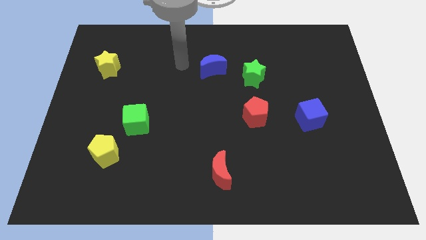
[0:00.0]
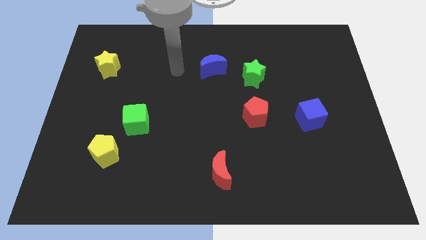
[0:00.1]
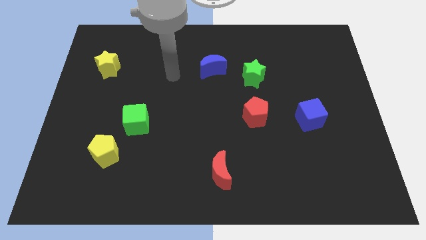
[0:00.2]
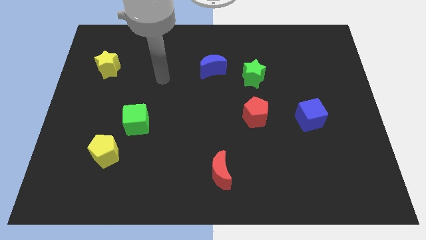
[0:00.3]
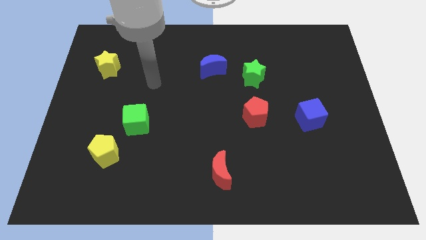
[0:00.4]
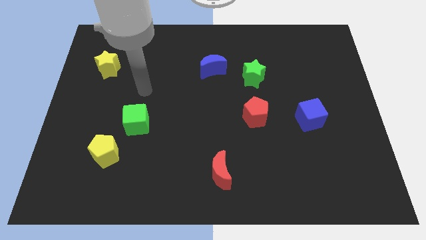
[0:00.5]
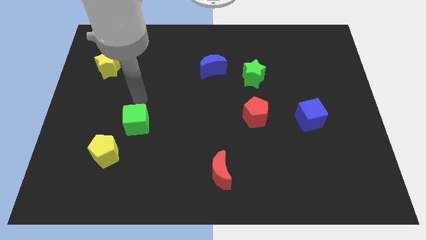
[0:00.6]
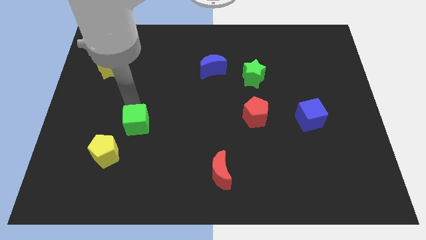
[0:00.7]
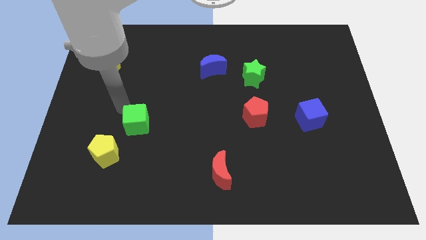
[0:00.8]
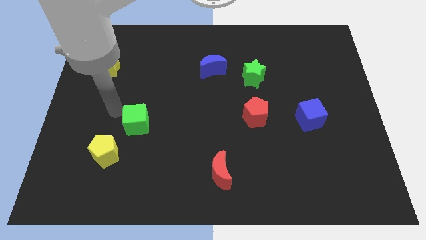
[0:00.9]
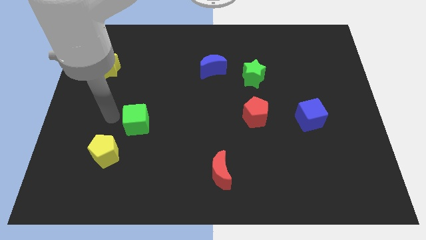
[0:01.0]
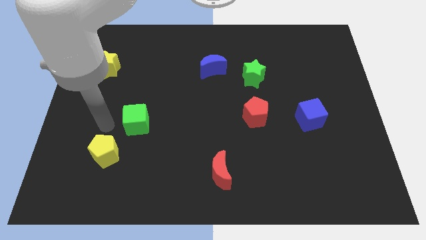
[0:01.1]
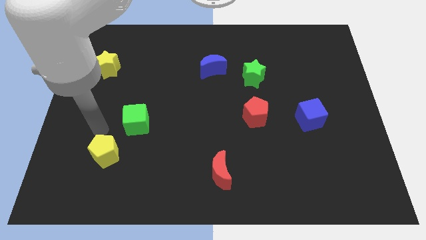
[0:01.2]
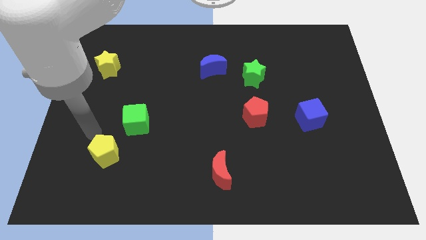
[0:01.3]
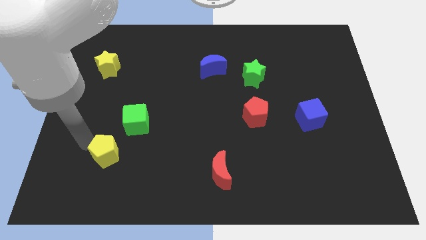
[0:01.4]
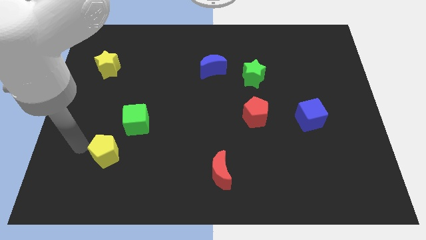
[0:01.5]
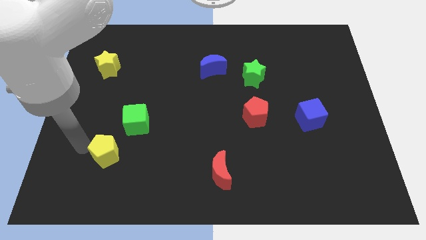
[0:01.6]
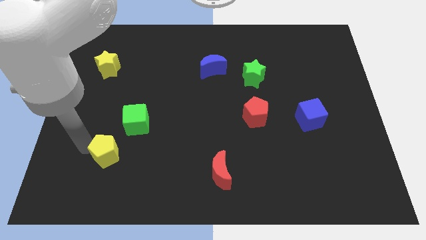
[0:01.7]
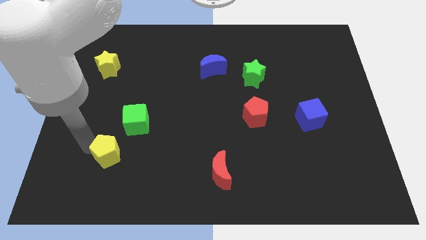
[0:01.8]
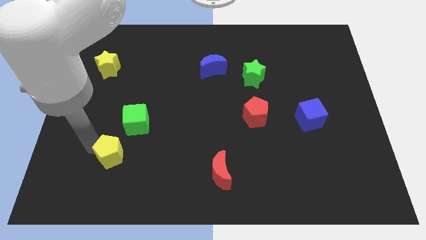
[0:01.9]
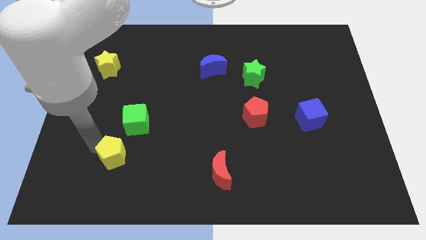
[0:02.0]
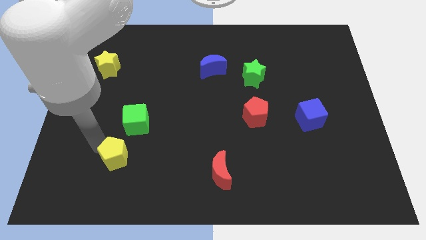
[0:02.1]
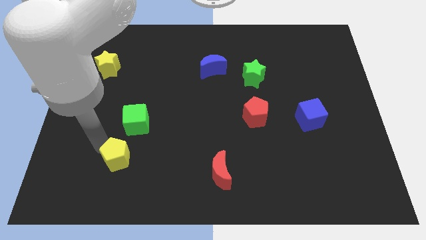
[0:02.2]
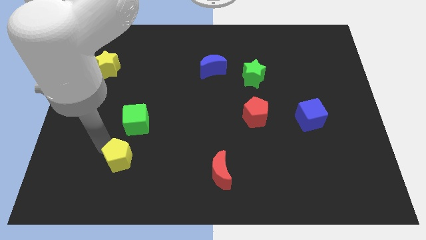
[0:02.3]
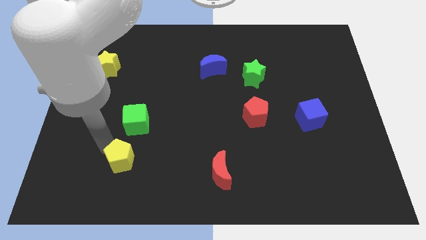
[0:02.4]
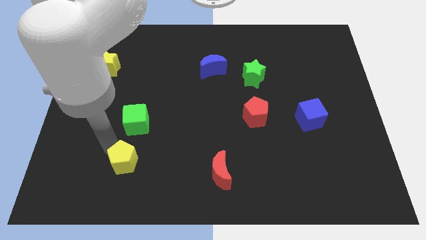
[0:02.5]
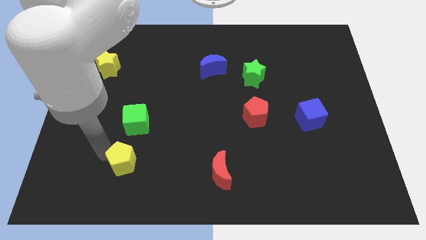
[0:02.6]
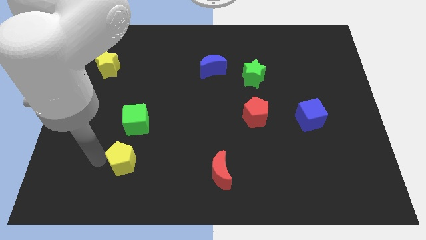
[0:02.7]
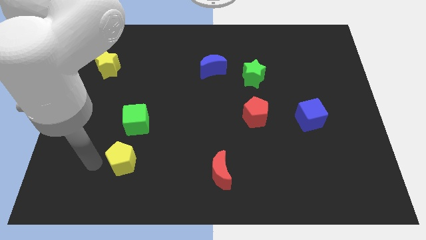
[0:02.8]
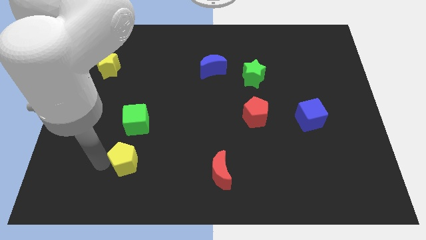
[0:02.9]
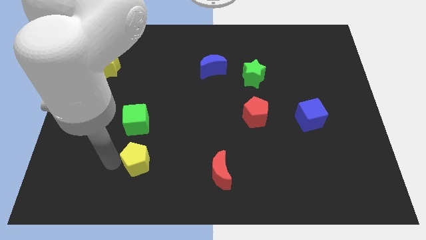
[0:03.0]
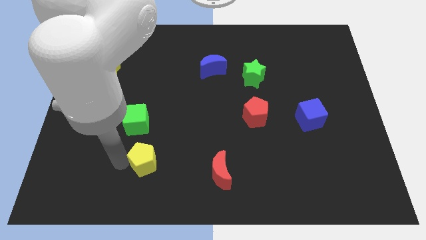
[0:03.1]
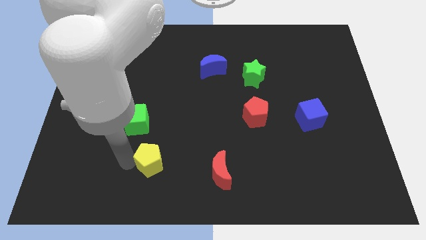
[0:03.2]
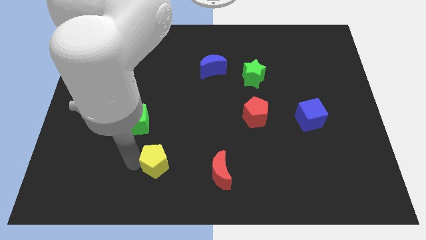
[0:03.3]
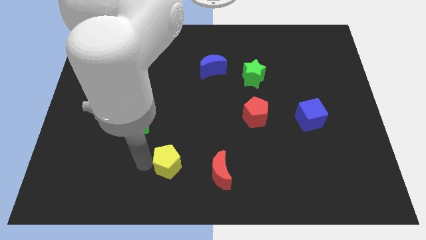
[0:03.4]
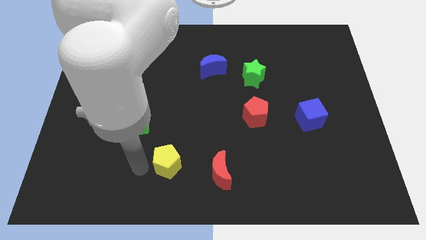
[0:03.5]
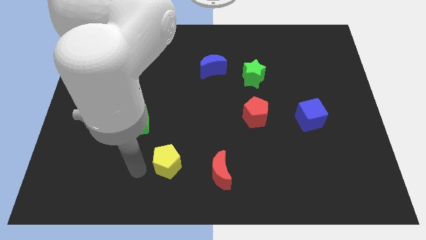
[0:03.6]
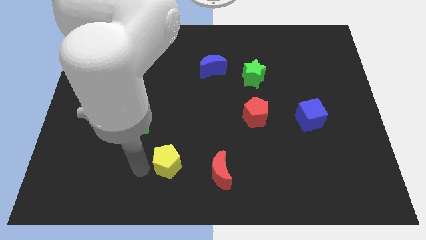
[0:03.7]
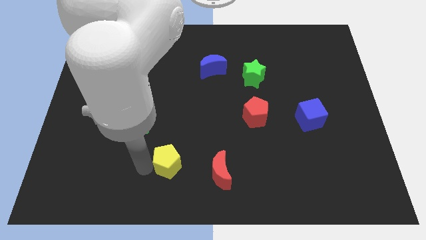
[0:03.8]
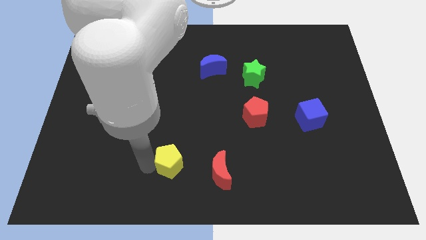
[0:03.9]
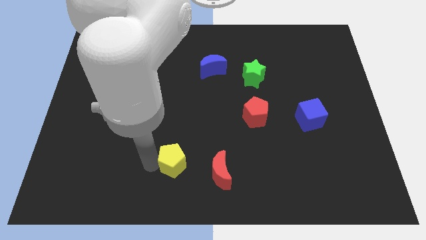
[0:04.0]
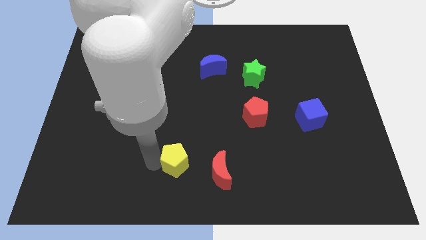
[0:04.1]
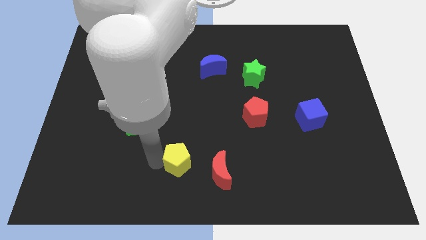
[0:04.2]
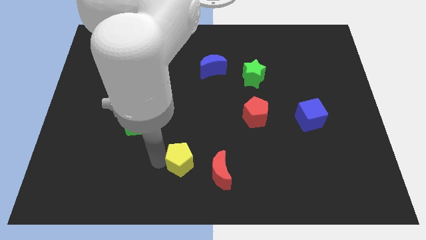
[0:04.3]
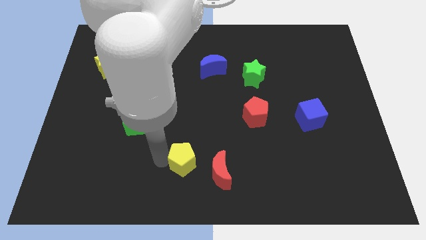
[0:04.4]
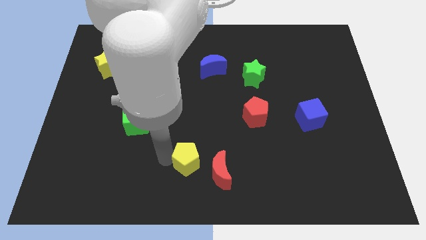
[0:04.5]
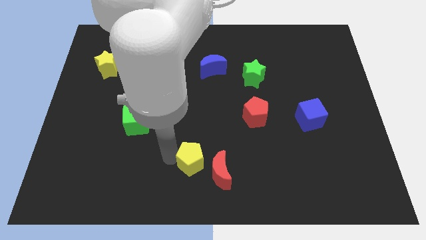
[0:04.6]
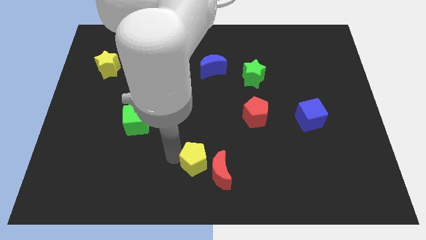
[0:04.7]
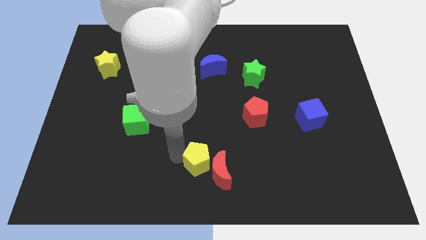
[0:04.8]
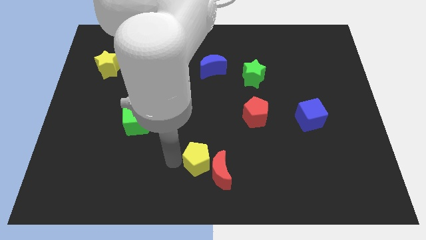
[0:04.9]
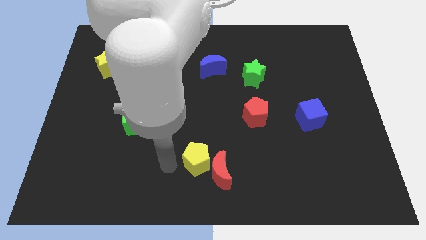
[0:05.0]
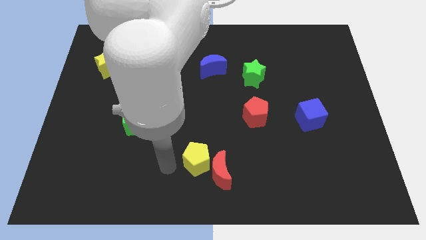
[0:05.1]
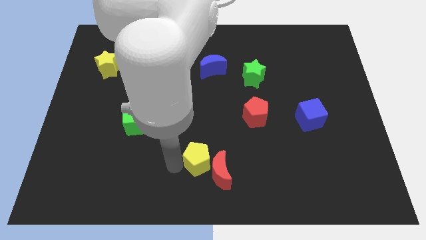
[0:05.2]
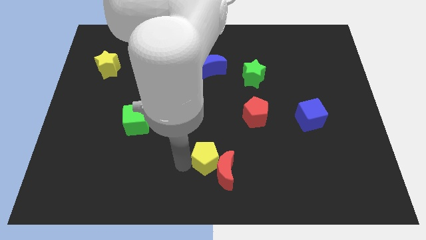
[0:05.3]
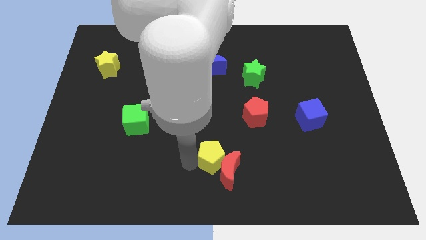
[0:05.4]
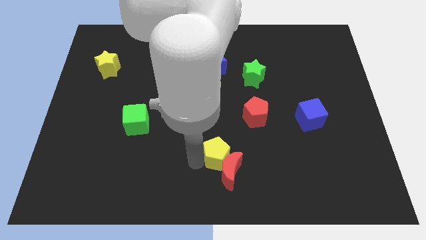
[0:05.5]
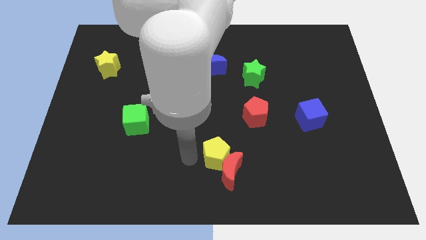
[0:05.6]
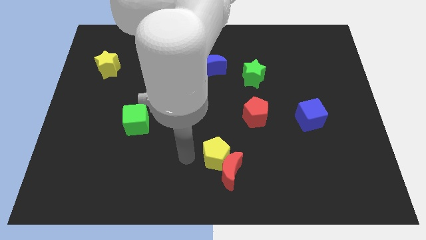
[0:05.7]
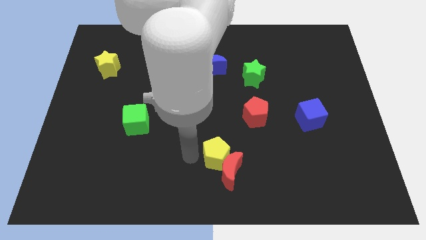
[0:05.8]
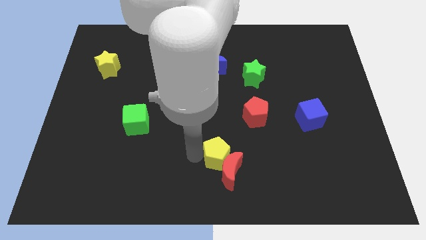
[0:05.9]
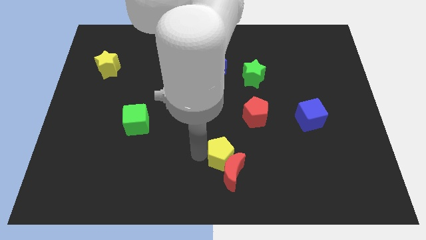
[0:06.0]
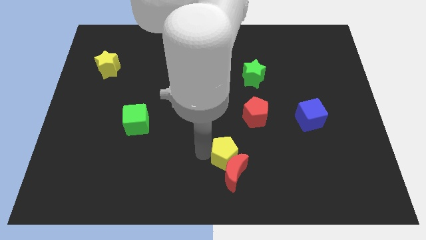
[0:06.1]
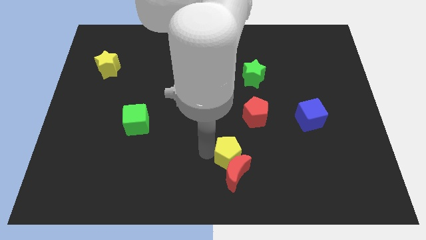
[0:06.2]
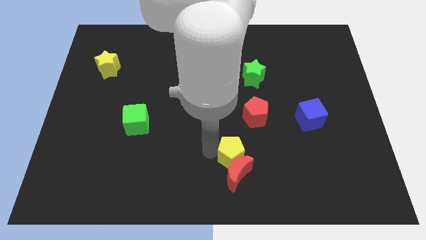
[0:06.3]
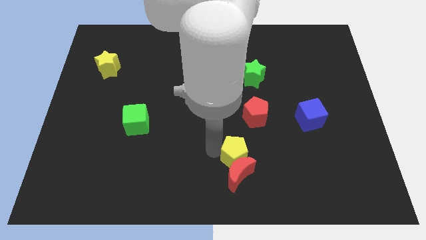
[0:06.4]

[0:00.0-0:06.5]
move the yellow pentagon to the bottom side of the red pentagon
